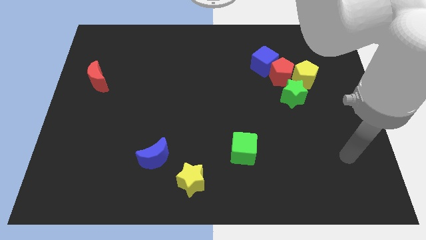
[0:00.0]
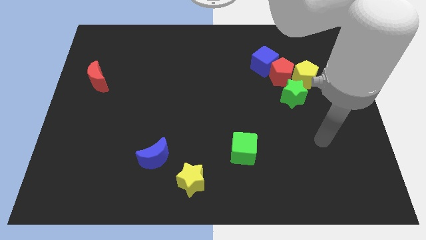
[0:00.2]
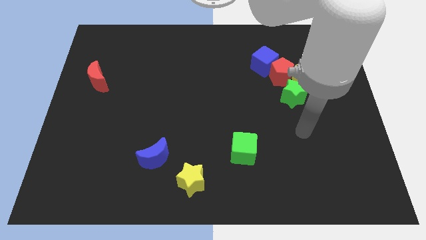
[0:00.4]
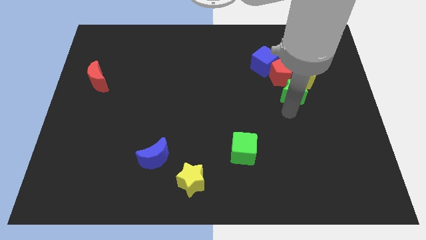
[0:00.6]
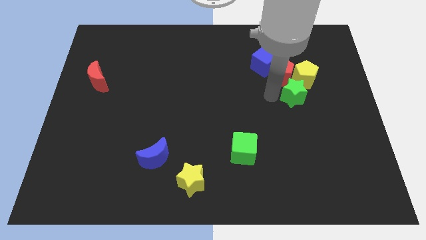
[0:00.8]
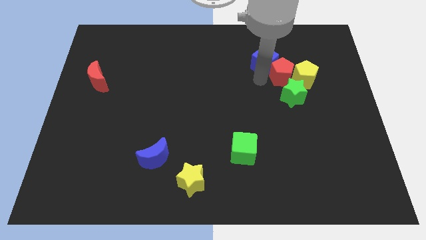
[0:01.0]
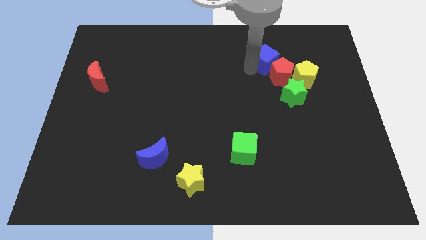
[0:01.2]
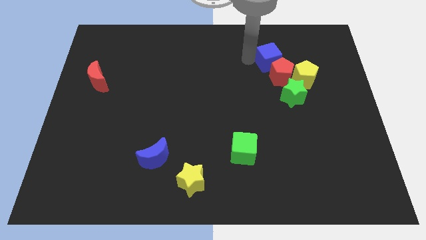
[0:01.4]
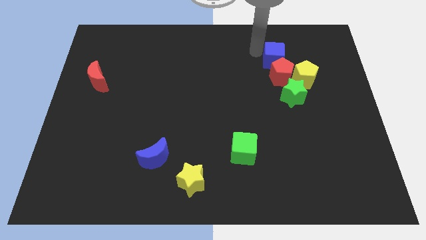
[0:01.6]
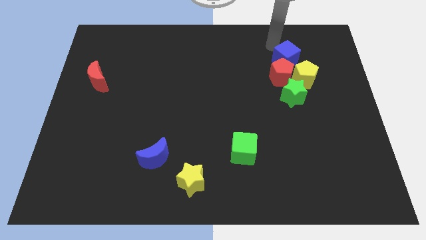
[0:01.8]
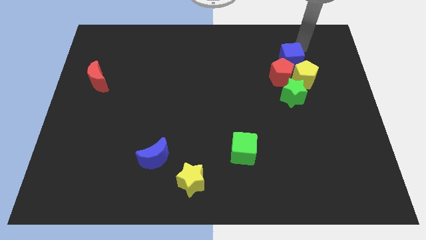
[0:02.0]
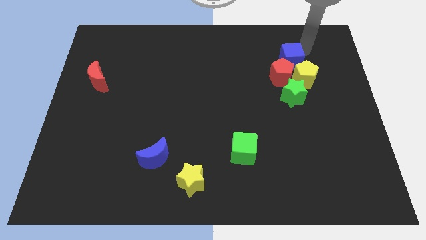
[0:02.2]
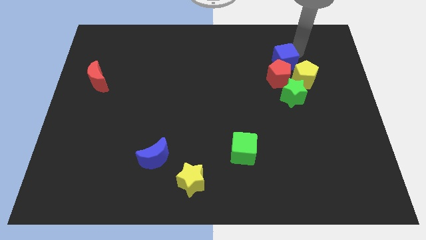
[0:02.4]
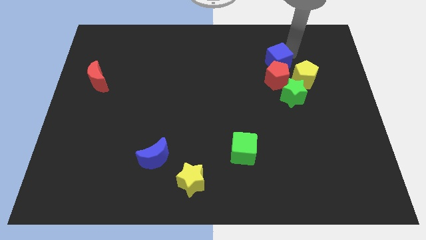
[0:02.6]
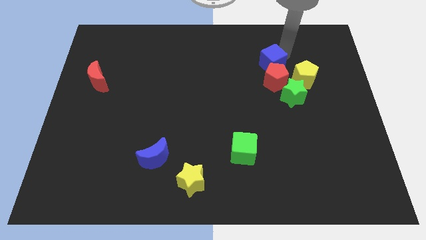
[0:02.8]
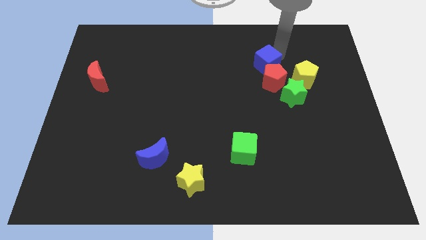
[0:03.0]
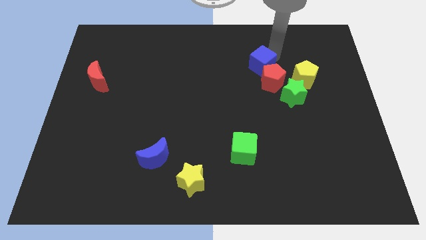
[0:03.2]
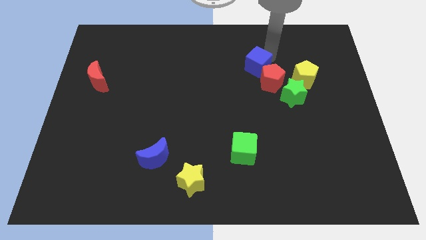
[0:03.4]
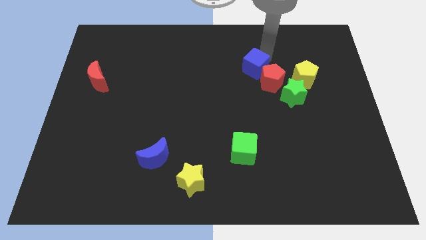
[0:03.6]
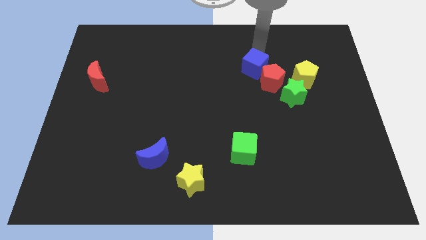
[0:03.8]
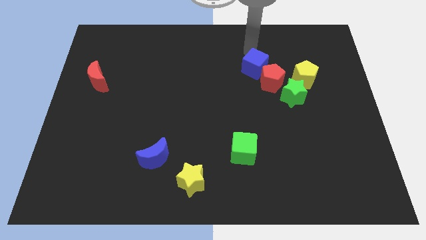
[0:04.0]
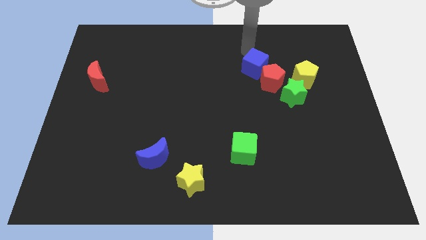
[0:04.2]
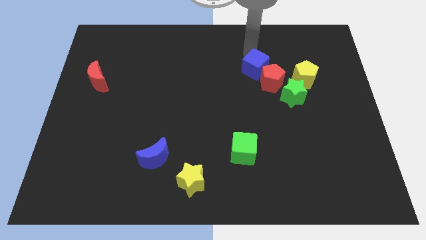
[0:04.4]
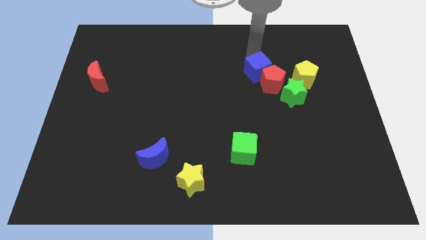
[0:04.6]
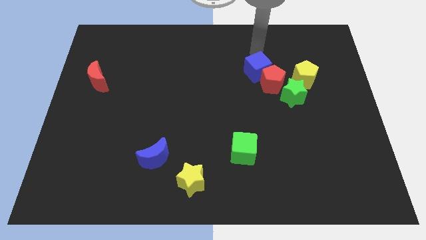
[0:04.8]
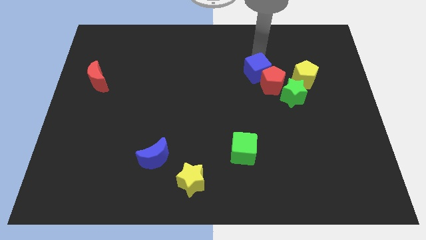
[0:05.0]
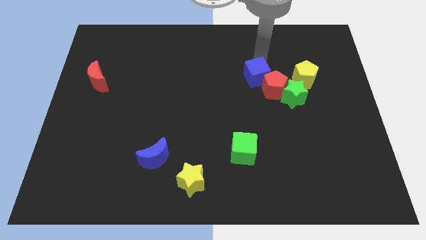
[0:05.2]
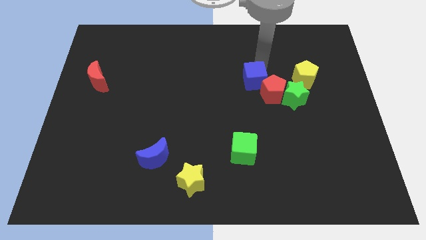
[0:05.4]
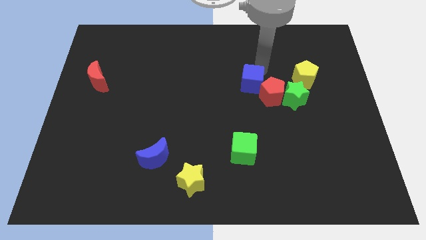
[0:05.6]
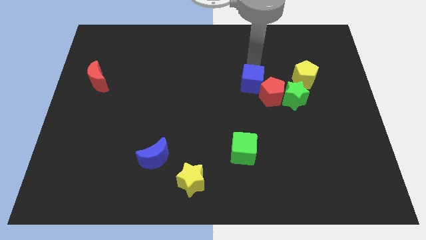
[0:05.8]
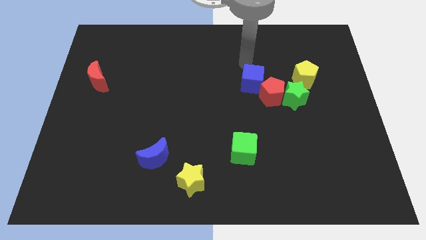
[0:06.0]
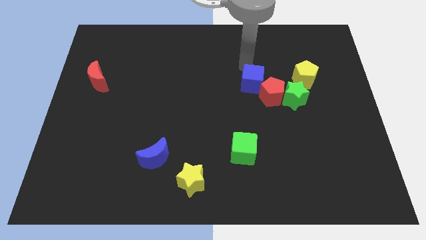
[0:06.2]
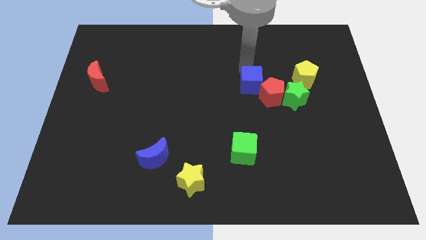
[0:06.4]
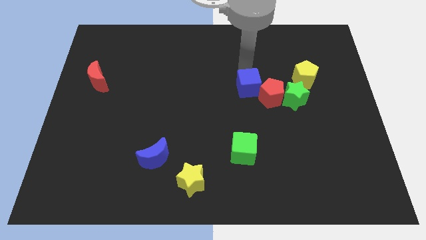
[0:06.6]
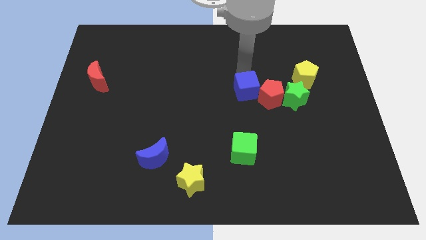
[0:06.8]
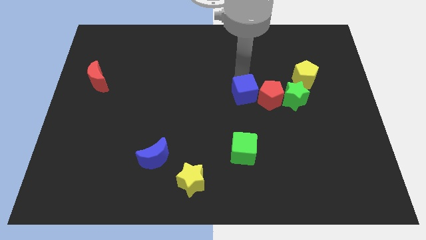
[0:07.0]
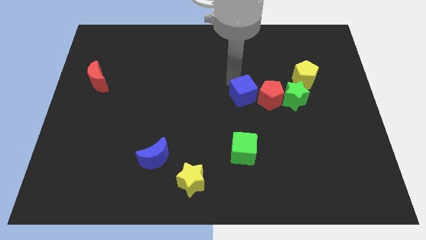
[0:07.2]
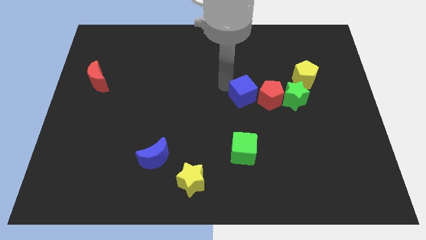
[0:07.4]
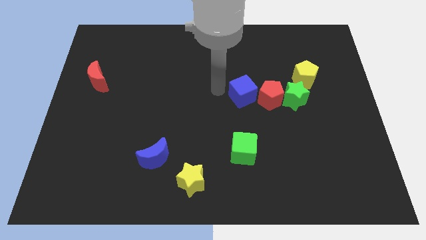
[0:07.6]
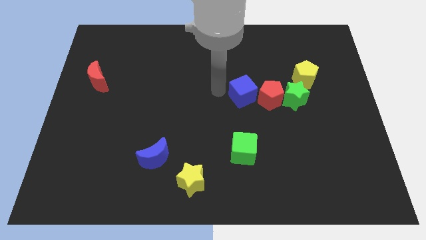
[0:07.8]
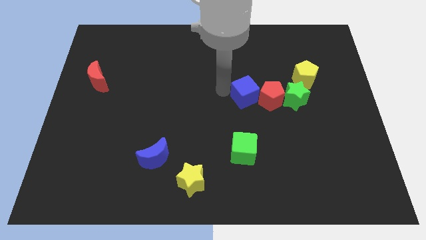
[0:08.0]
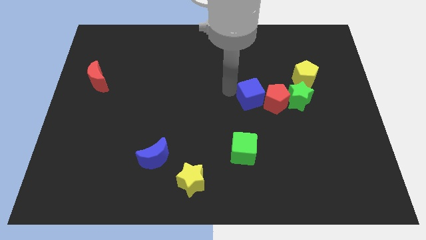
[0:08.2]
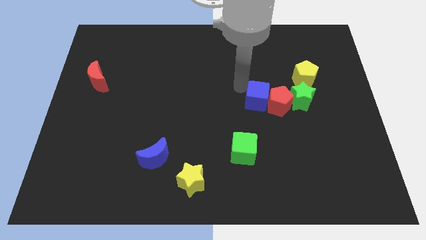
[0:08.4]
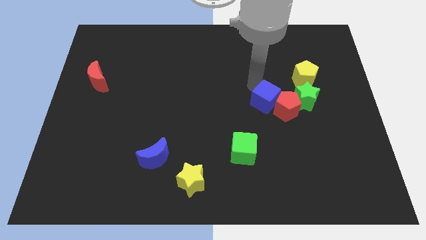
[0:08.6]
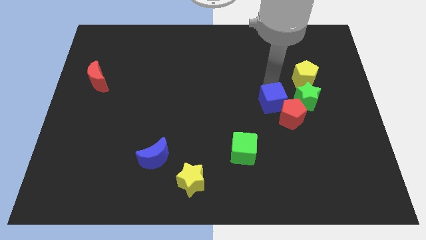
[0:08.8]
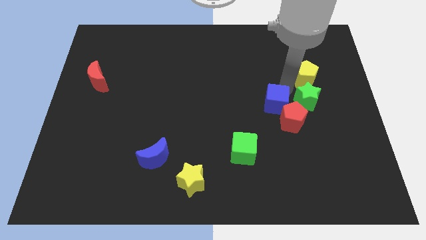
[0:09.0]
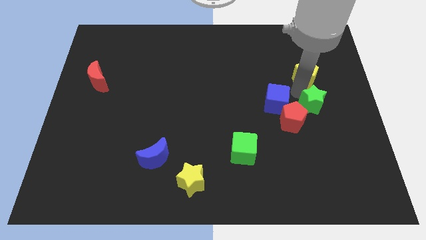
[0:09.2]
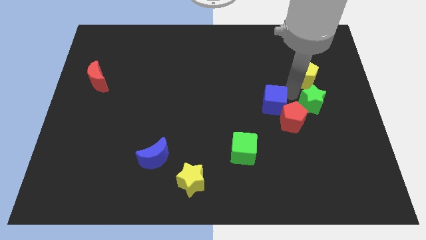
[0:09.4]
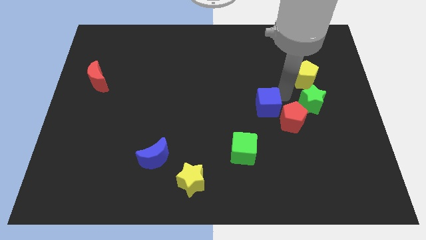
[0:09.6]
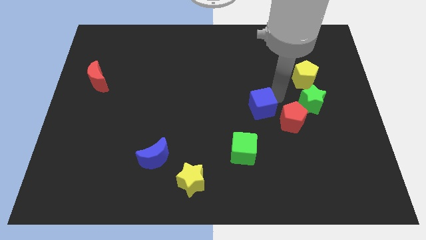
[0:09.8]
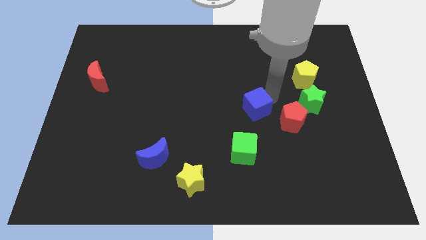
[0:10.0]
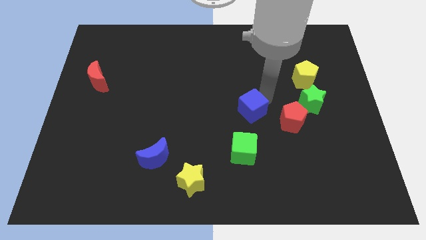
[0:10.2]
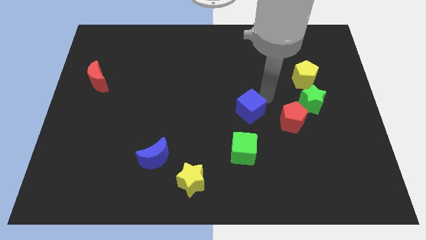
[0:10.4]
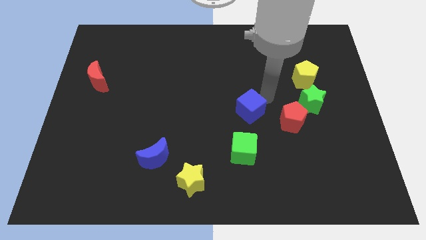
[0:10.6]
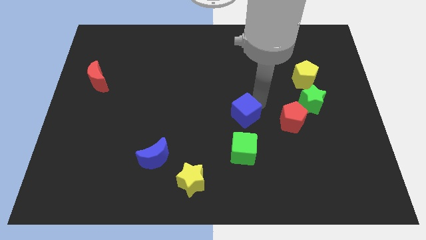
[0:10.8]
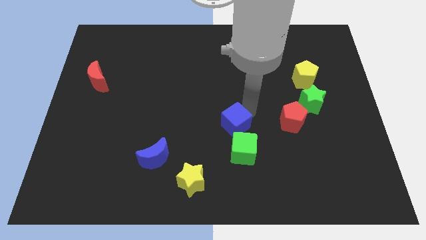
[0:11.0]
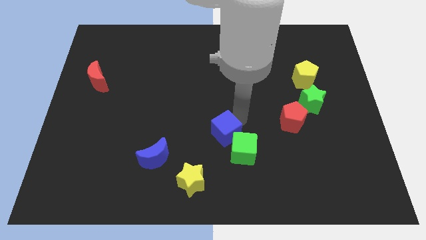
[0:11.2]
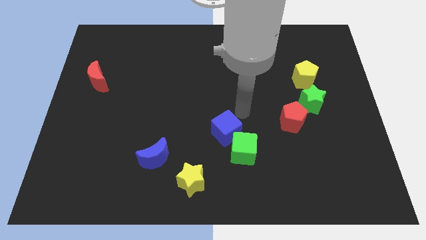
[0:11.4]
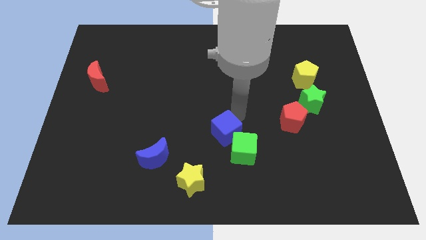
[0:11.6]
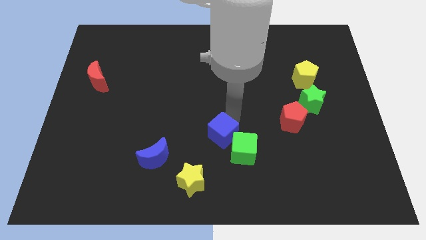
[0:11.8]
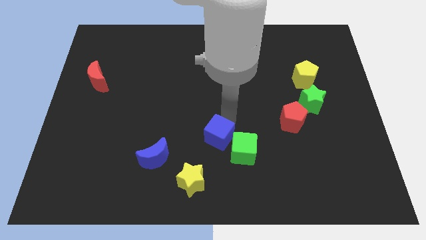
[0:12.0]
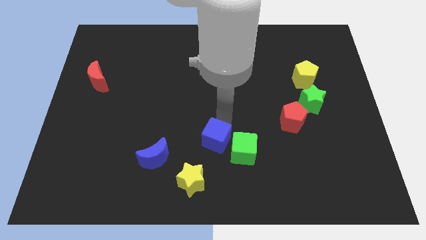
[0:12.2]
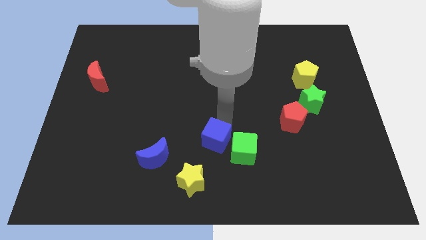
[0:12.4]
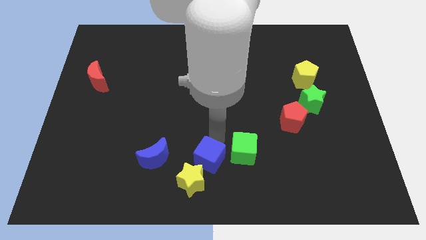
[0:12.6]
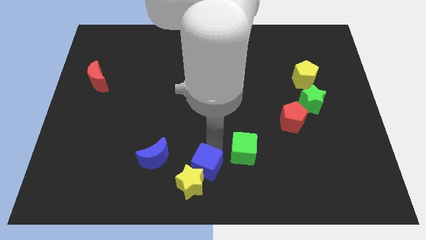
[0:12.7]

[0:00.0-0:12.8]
put the blue cube next to the yellow star

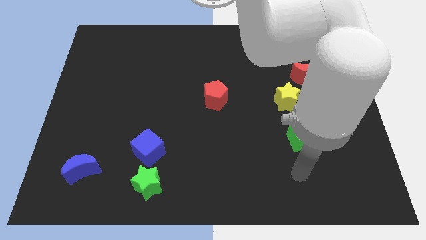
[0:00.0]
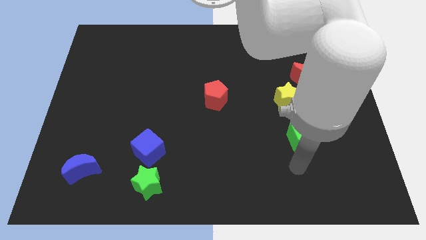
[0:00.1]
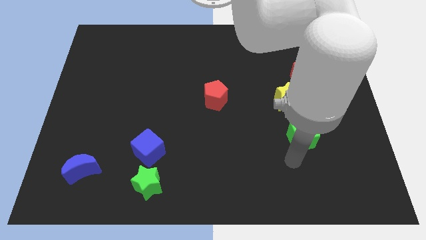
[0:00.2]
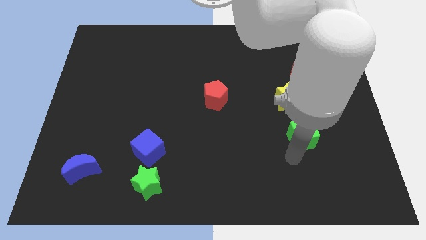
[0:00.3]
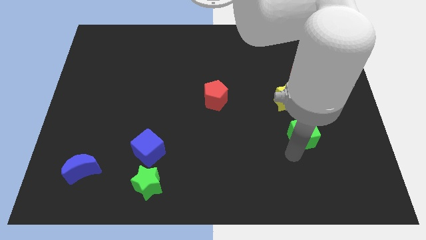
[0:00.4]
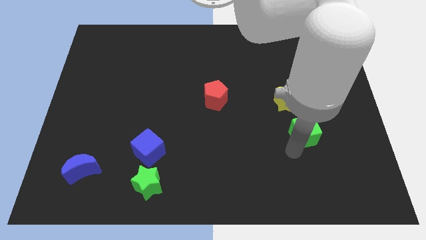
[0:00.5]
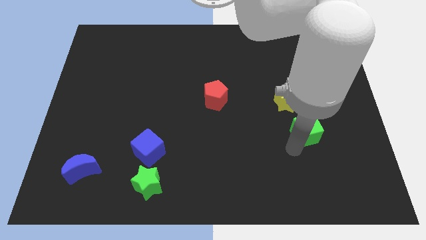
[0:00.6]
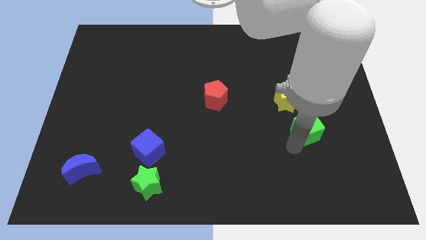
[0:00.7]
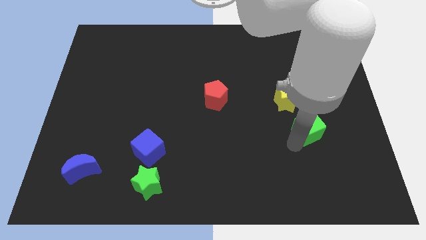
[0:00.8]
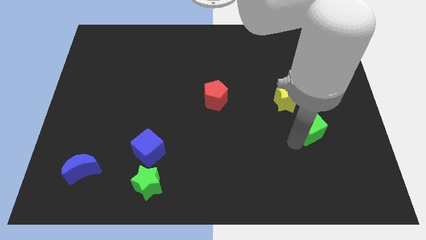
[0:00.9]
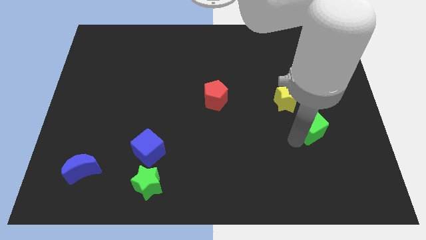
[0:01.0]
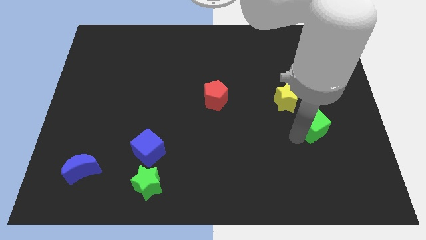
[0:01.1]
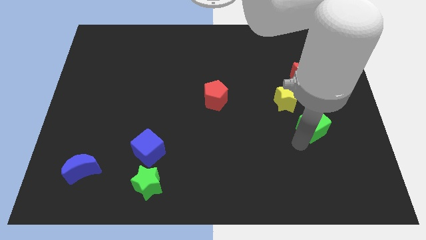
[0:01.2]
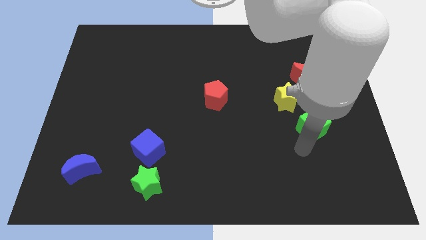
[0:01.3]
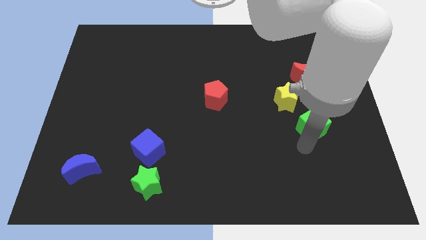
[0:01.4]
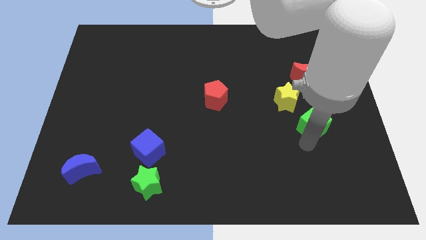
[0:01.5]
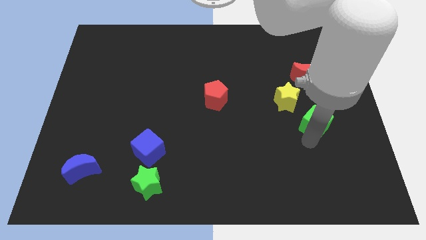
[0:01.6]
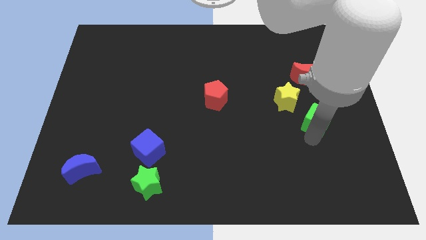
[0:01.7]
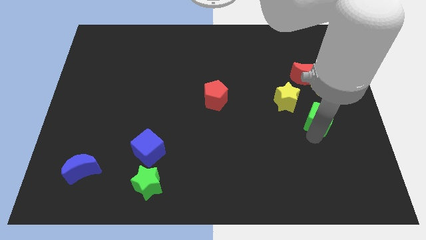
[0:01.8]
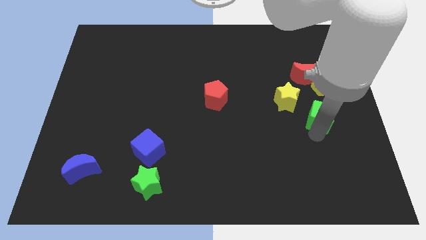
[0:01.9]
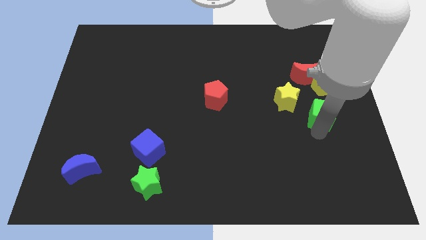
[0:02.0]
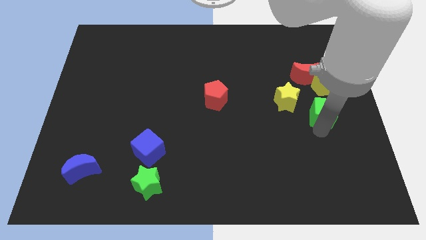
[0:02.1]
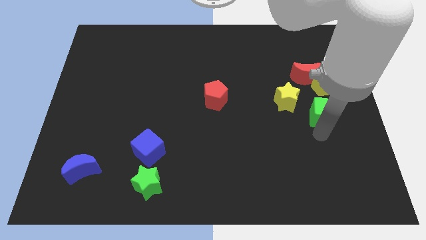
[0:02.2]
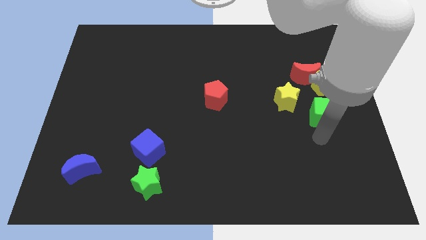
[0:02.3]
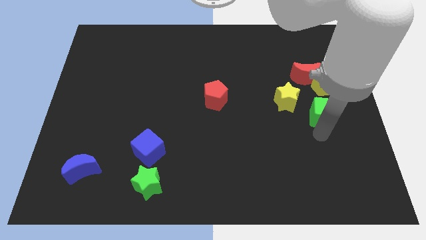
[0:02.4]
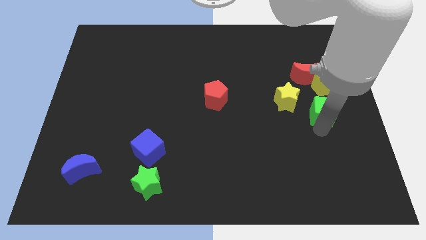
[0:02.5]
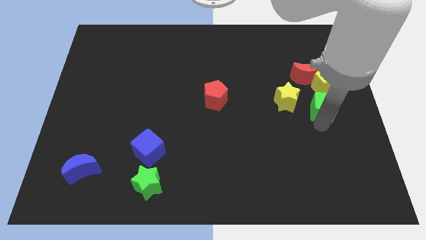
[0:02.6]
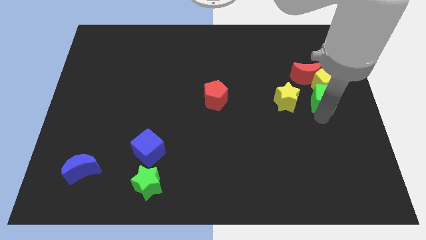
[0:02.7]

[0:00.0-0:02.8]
put the green cube close to the yellow pentagon
